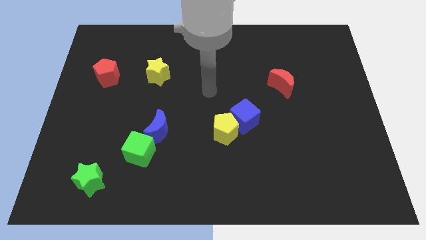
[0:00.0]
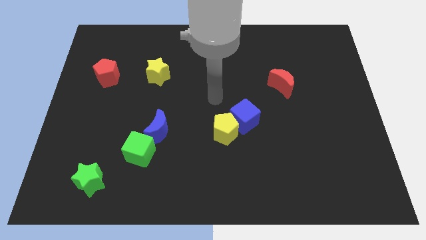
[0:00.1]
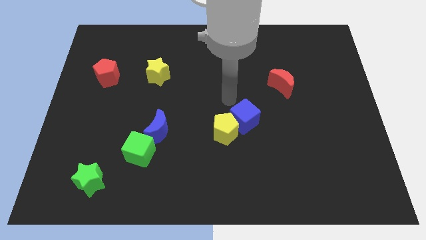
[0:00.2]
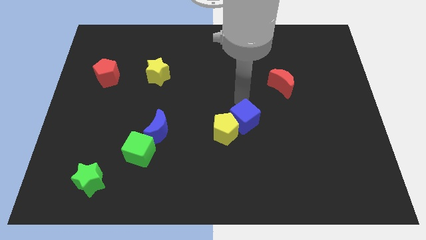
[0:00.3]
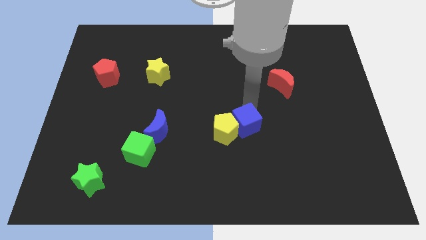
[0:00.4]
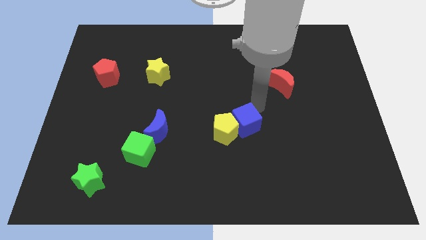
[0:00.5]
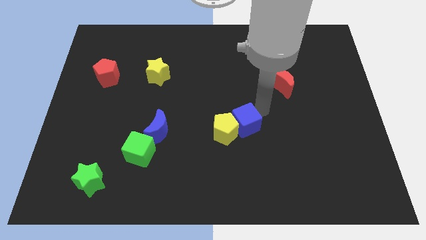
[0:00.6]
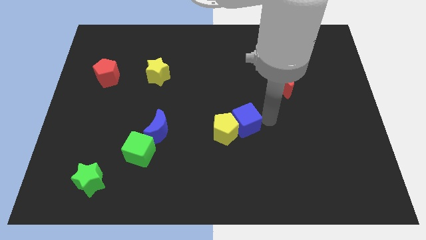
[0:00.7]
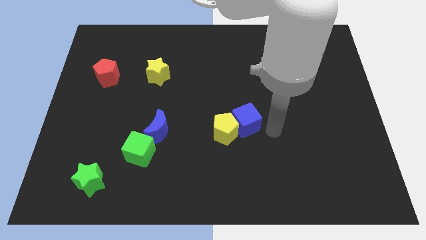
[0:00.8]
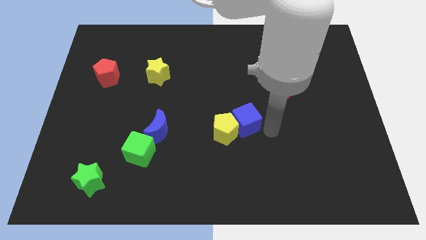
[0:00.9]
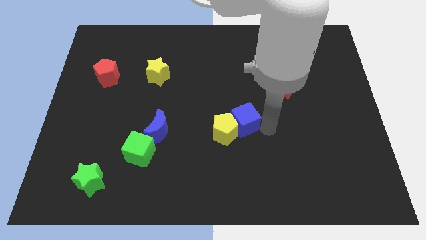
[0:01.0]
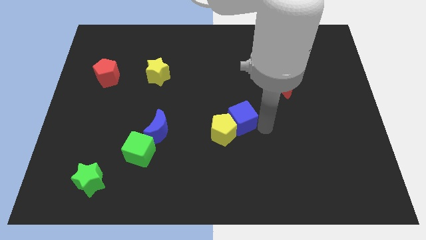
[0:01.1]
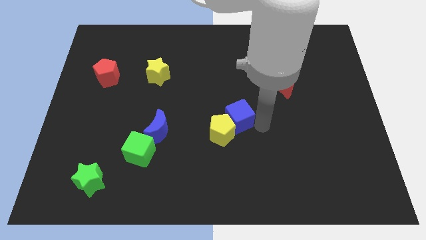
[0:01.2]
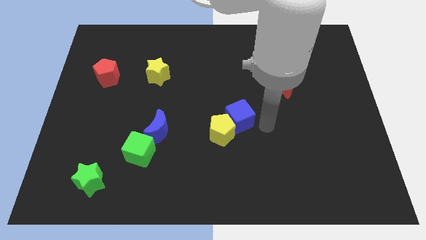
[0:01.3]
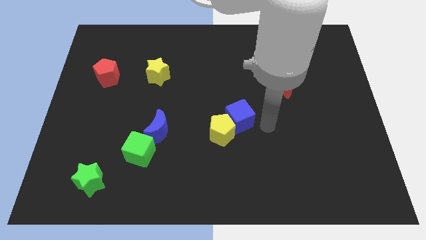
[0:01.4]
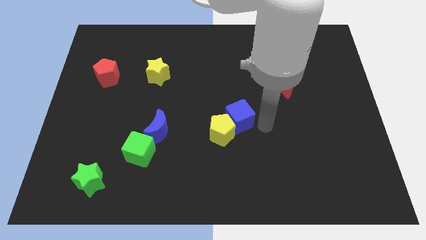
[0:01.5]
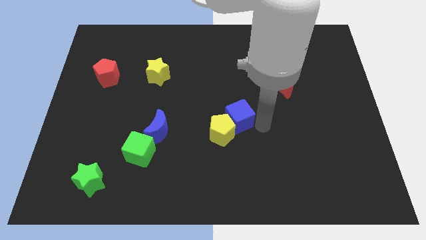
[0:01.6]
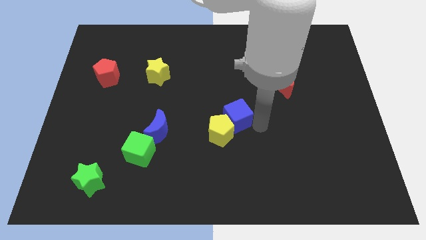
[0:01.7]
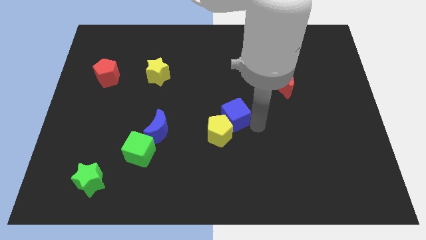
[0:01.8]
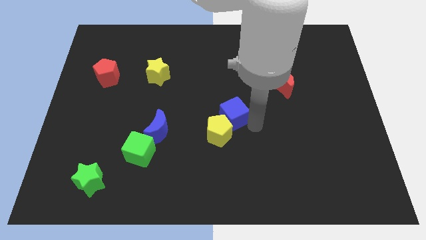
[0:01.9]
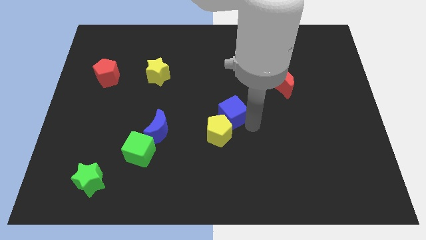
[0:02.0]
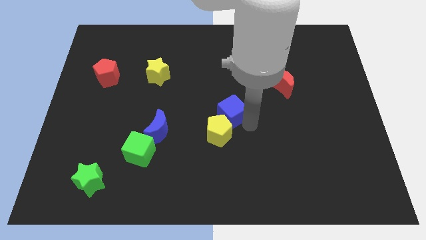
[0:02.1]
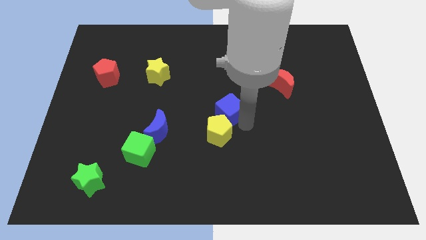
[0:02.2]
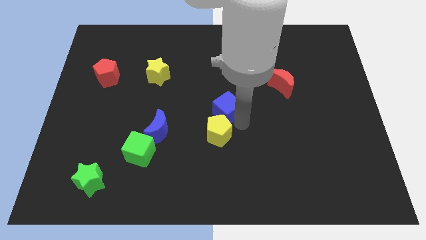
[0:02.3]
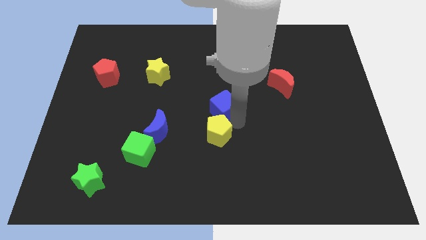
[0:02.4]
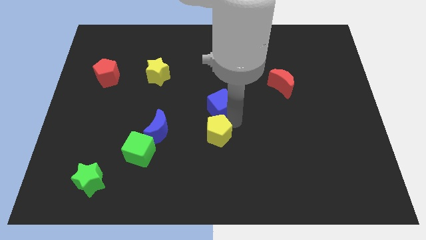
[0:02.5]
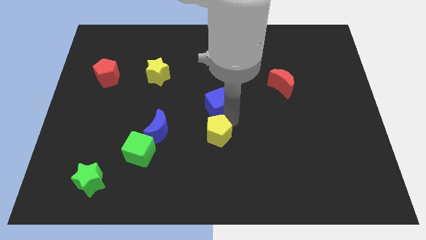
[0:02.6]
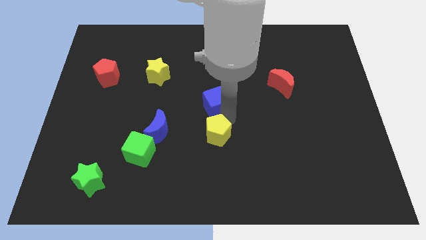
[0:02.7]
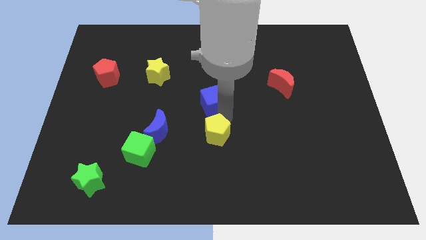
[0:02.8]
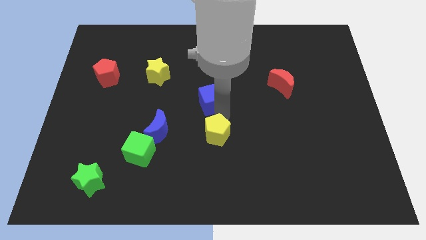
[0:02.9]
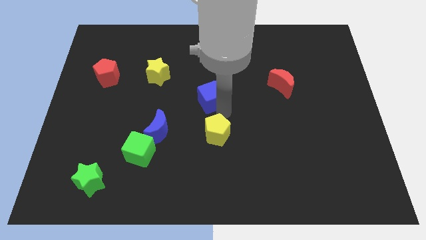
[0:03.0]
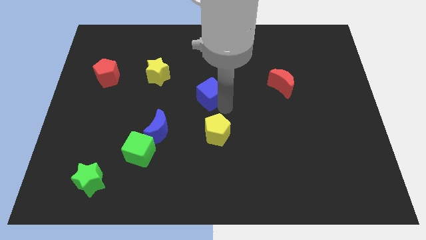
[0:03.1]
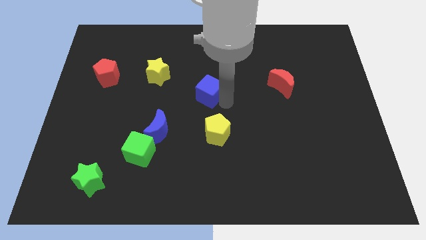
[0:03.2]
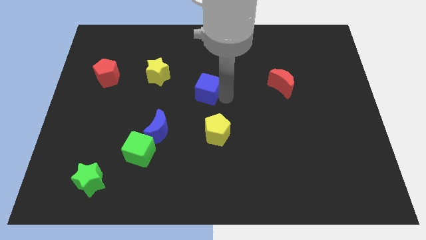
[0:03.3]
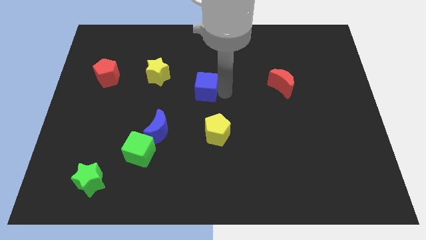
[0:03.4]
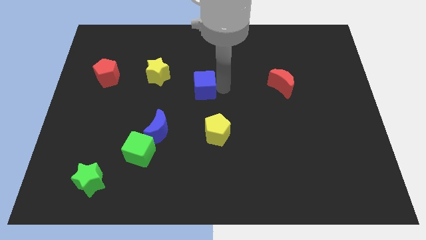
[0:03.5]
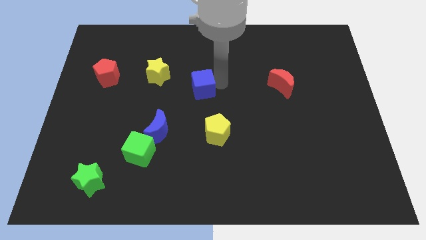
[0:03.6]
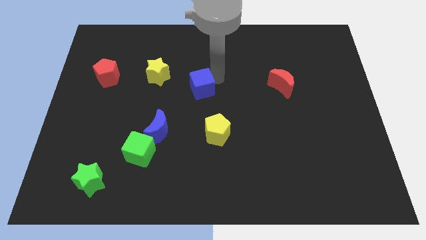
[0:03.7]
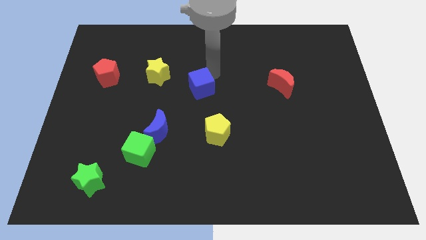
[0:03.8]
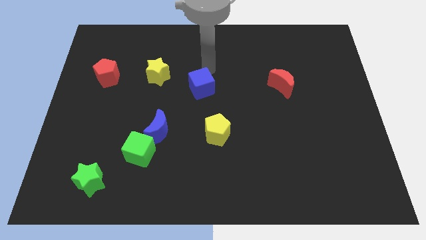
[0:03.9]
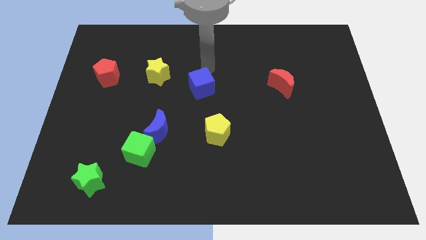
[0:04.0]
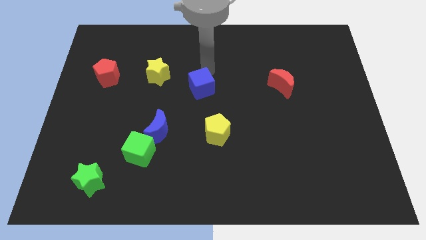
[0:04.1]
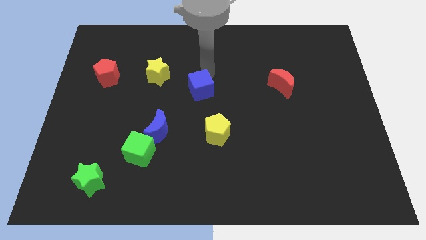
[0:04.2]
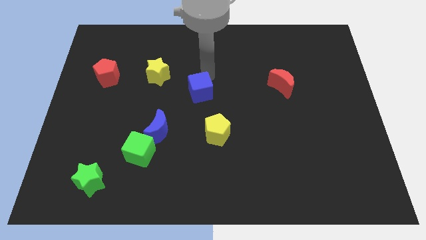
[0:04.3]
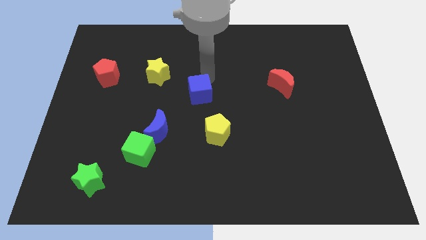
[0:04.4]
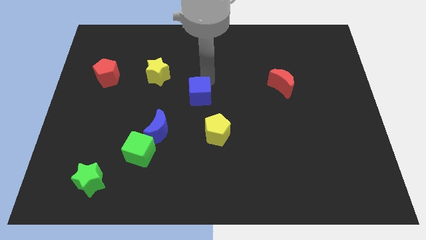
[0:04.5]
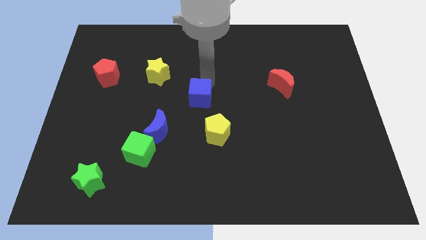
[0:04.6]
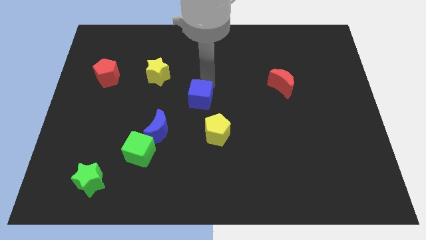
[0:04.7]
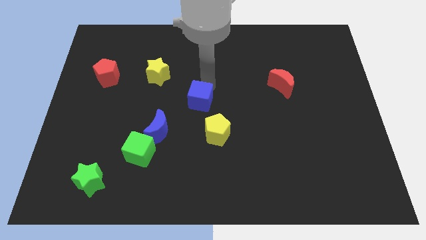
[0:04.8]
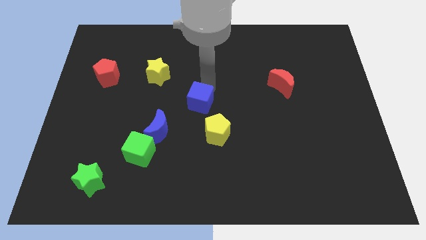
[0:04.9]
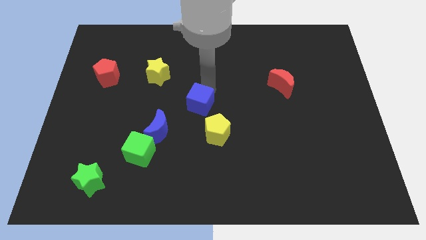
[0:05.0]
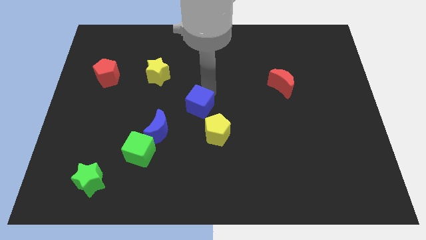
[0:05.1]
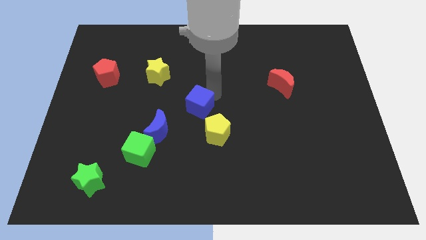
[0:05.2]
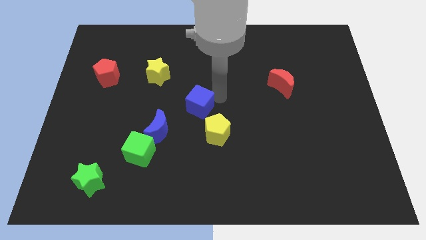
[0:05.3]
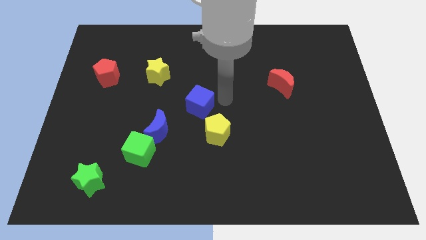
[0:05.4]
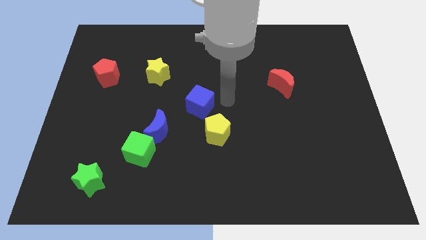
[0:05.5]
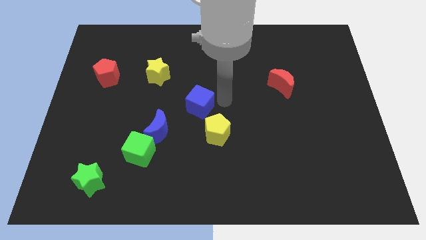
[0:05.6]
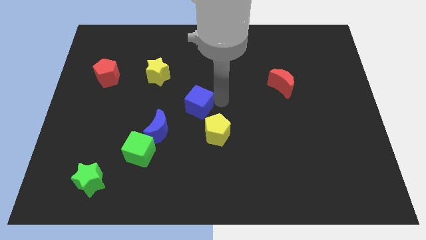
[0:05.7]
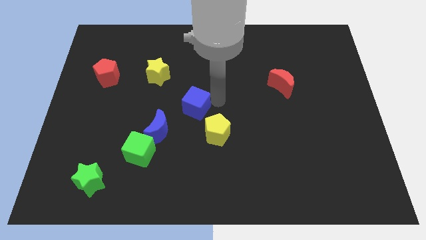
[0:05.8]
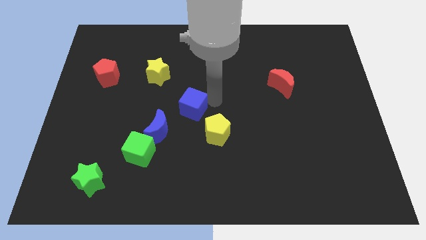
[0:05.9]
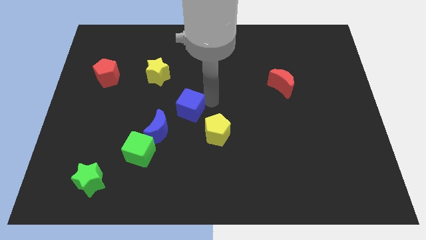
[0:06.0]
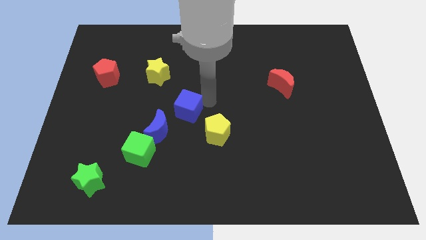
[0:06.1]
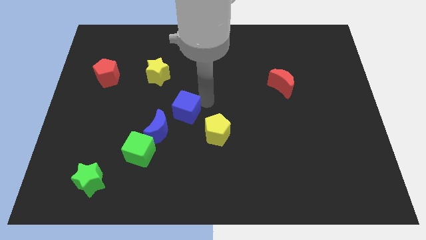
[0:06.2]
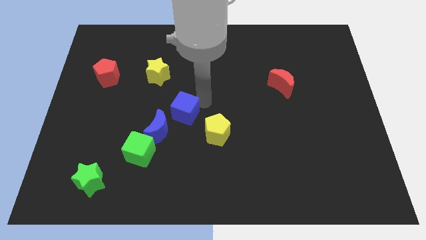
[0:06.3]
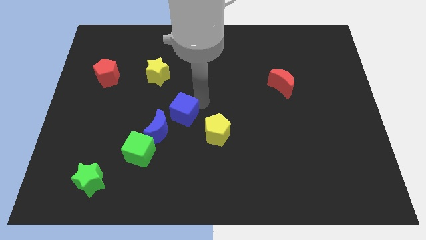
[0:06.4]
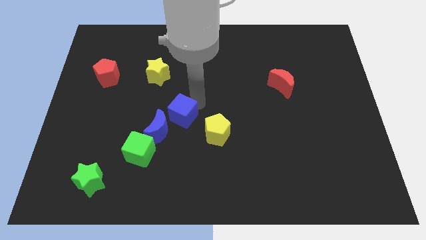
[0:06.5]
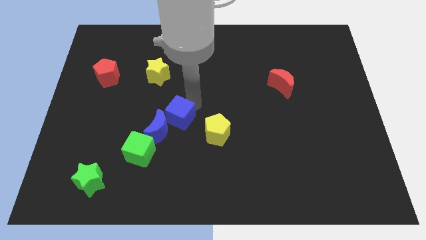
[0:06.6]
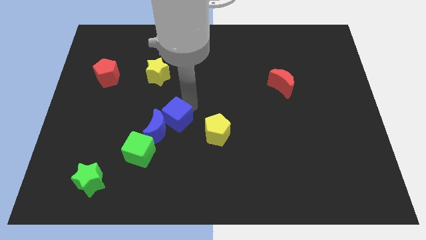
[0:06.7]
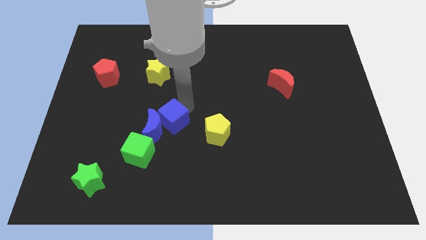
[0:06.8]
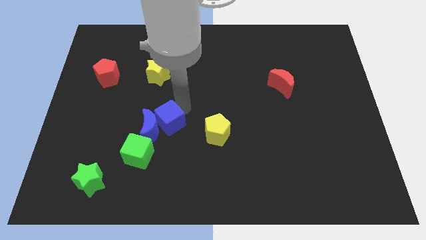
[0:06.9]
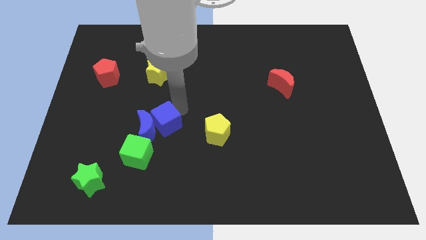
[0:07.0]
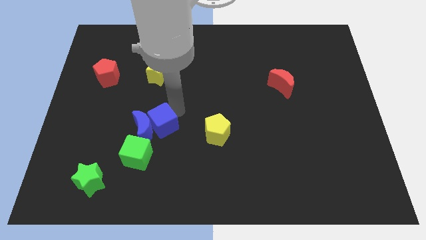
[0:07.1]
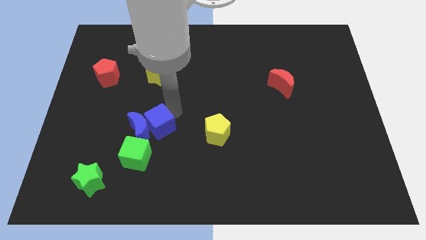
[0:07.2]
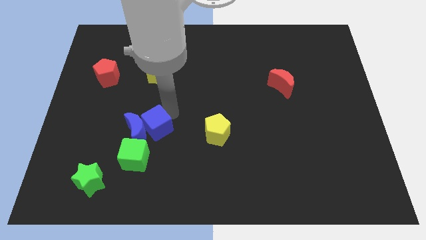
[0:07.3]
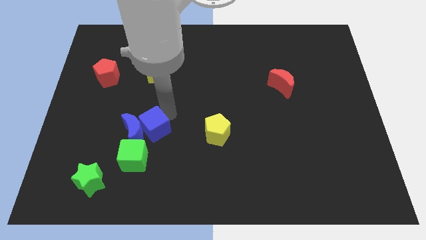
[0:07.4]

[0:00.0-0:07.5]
move the blue cube left

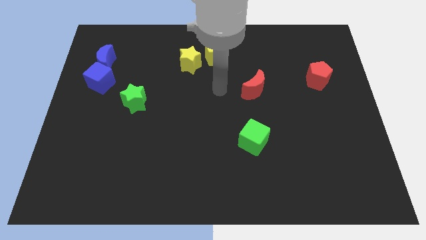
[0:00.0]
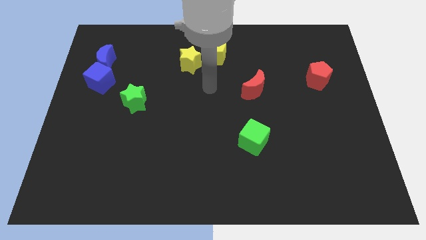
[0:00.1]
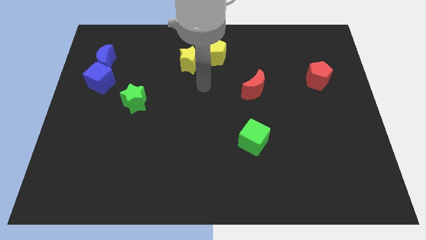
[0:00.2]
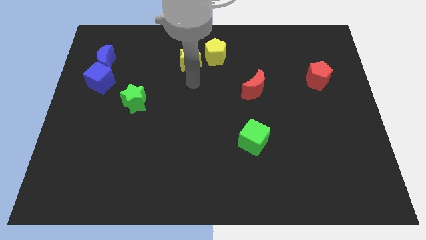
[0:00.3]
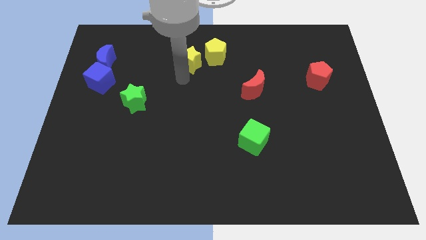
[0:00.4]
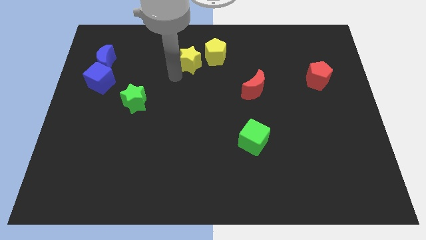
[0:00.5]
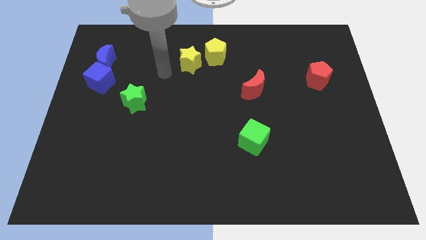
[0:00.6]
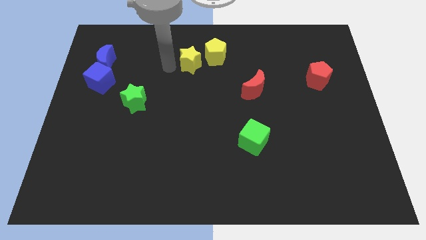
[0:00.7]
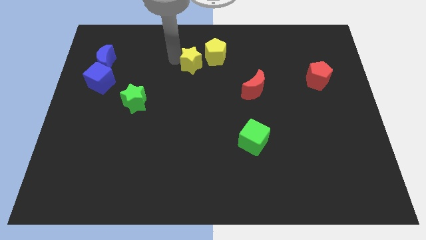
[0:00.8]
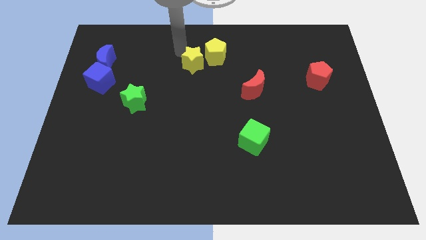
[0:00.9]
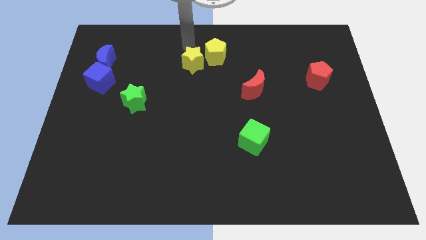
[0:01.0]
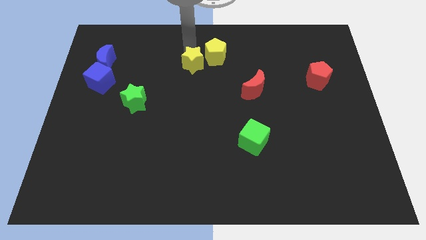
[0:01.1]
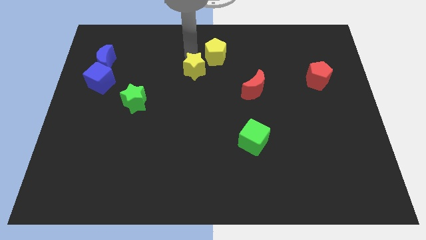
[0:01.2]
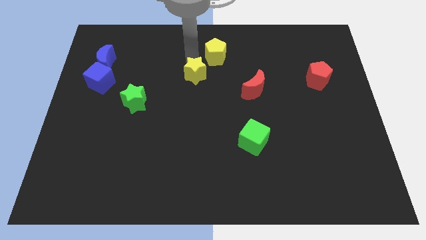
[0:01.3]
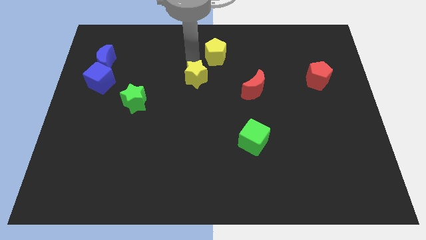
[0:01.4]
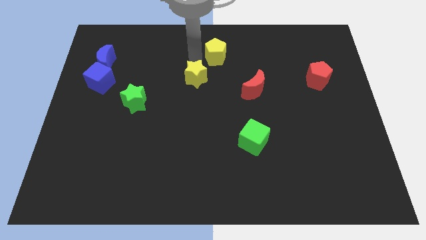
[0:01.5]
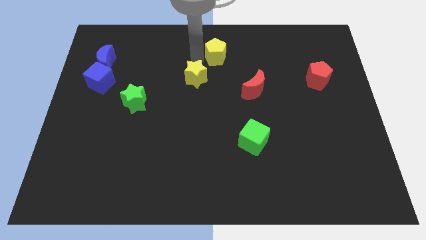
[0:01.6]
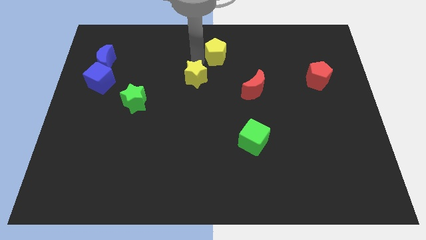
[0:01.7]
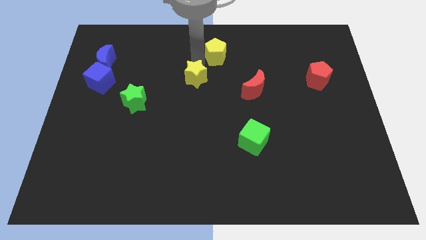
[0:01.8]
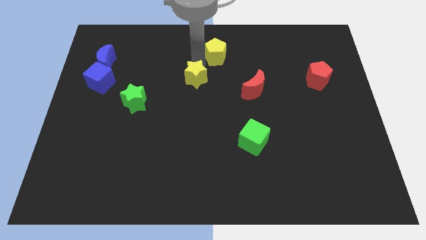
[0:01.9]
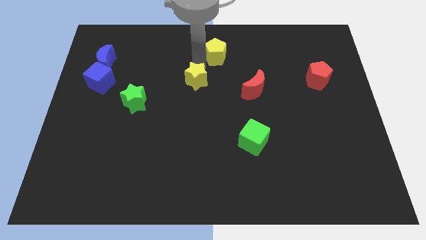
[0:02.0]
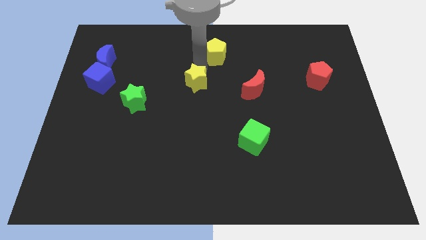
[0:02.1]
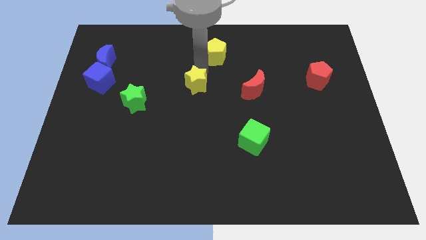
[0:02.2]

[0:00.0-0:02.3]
slide the yellow star downwards somewhat
